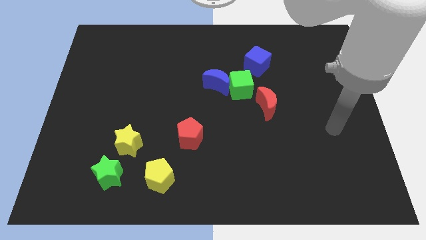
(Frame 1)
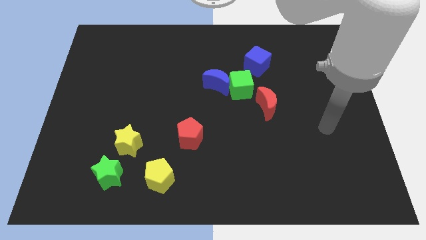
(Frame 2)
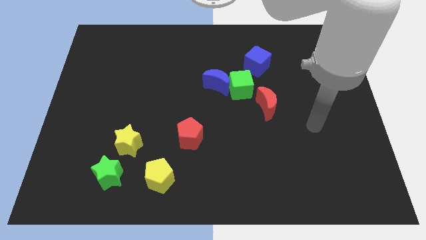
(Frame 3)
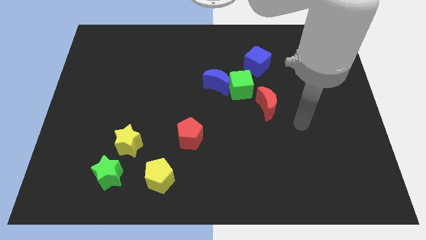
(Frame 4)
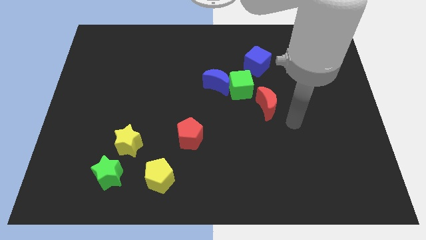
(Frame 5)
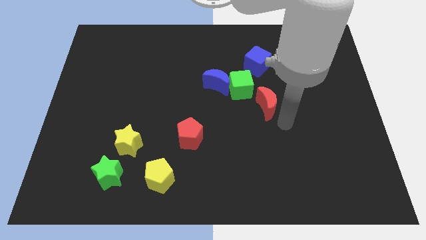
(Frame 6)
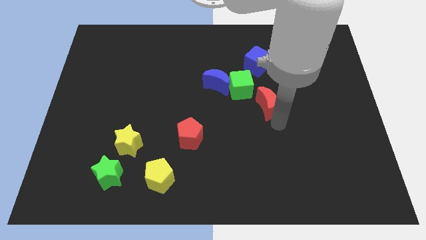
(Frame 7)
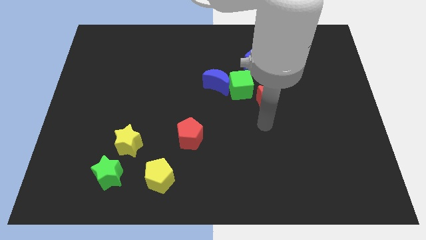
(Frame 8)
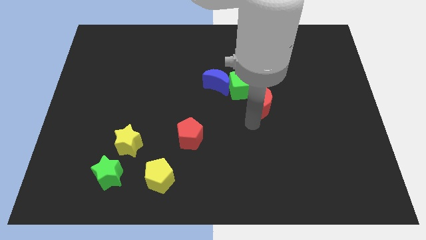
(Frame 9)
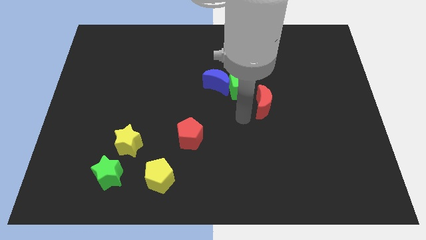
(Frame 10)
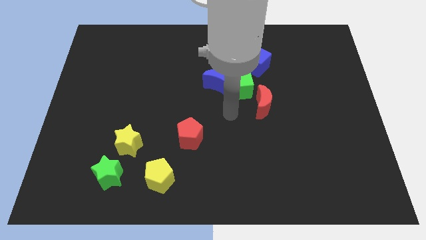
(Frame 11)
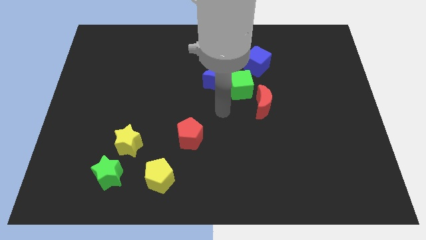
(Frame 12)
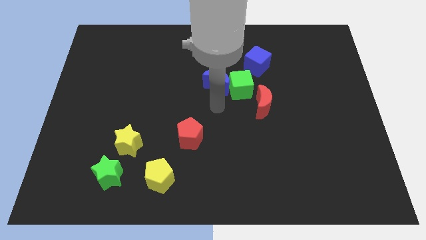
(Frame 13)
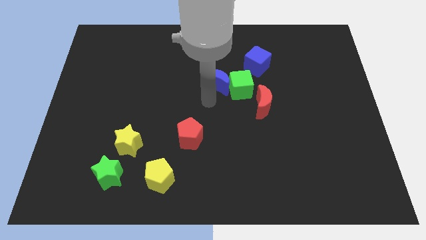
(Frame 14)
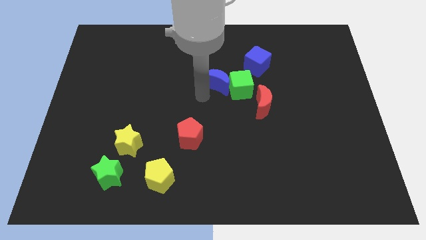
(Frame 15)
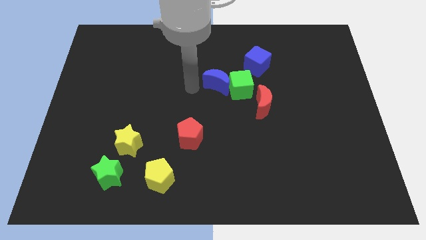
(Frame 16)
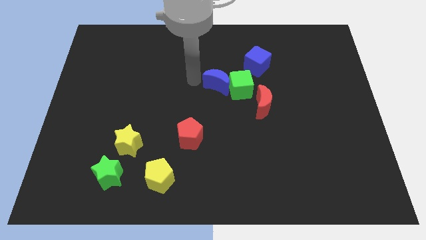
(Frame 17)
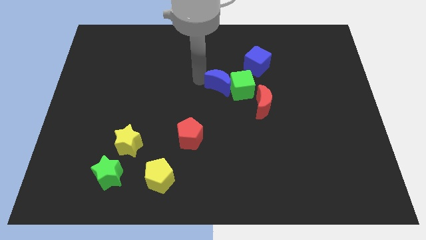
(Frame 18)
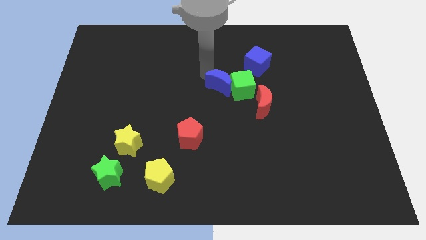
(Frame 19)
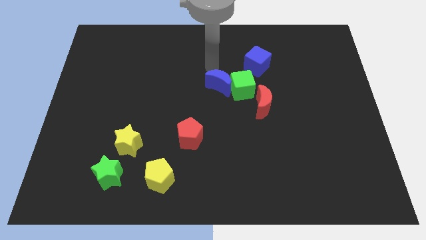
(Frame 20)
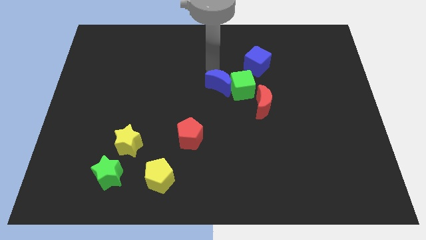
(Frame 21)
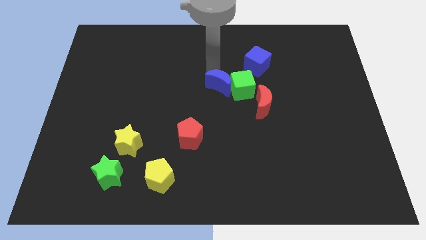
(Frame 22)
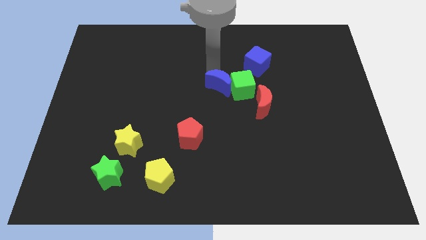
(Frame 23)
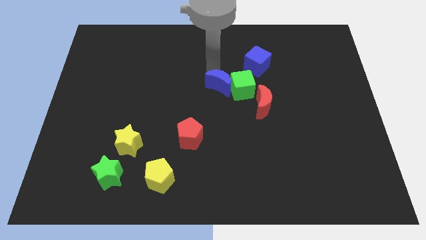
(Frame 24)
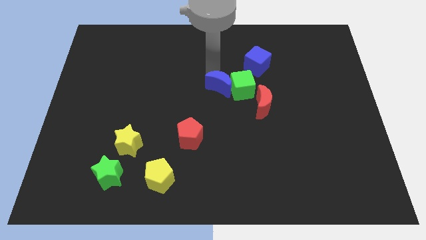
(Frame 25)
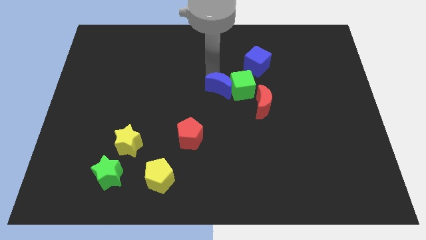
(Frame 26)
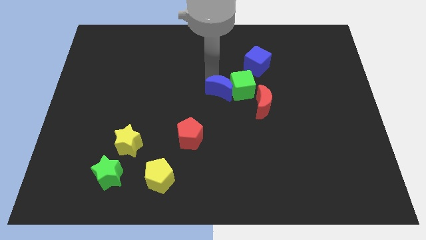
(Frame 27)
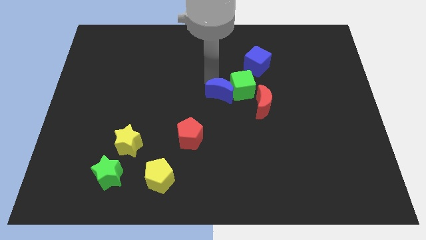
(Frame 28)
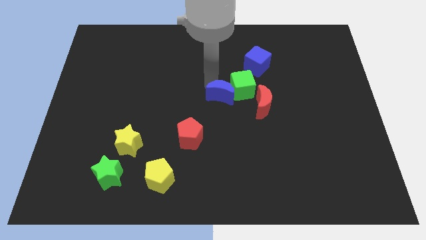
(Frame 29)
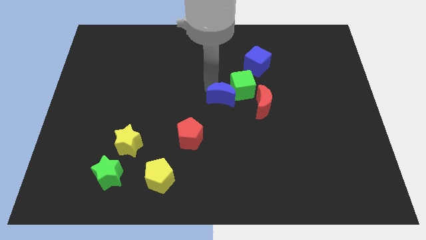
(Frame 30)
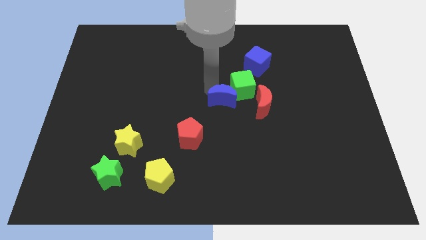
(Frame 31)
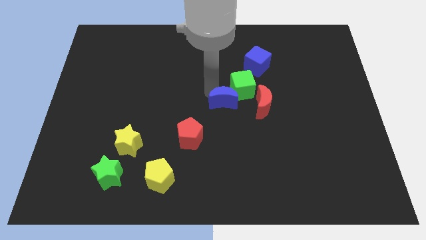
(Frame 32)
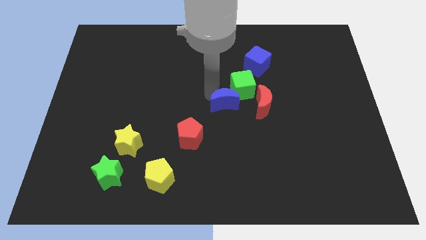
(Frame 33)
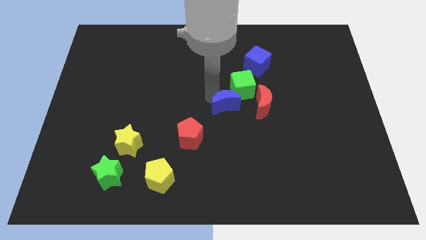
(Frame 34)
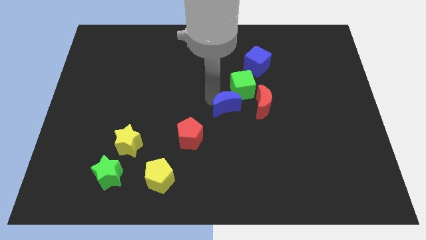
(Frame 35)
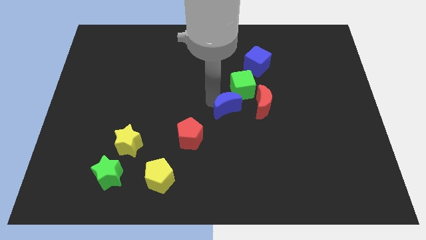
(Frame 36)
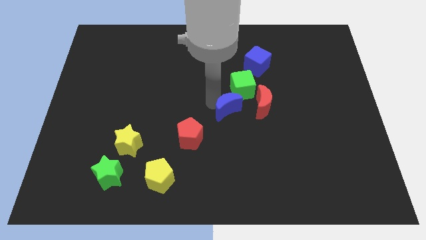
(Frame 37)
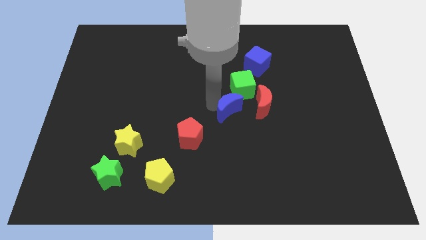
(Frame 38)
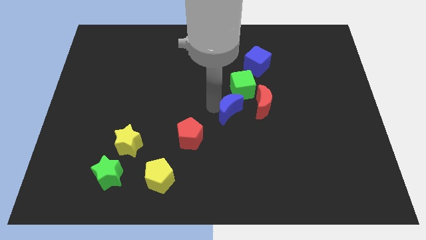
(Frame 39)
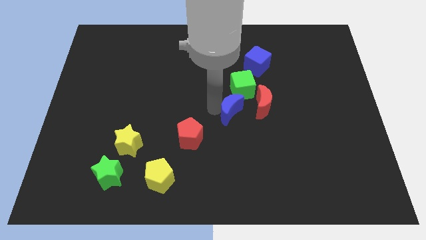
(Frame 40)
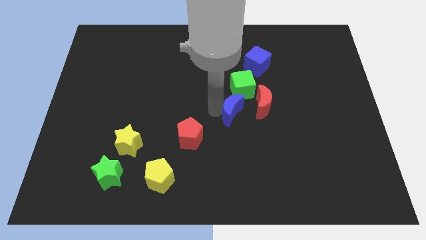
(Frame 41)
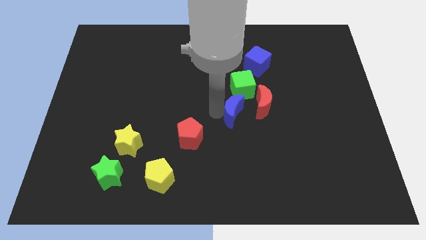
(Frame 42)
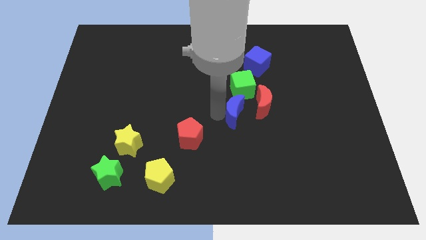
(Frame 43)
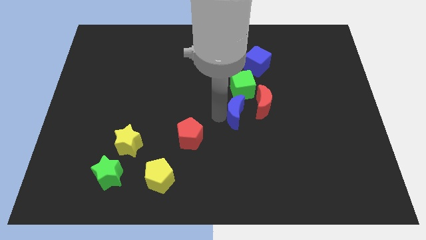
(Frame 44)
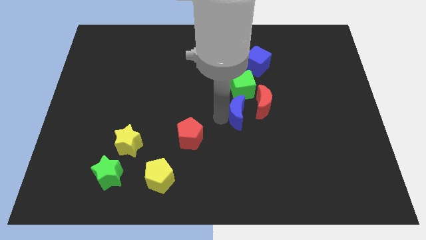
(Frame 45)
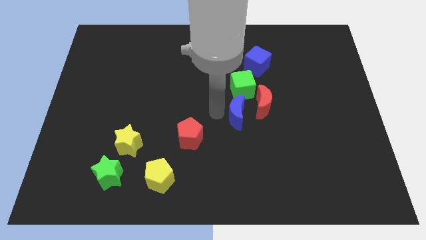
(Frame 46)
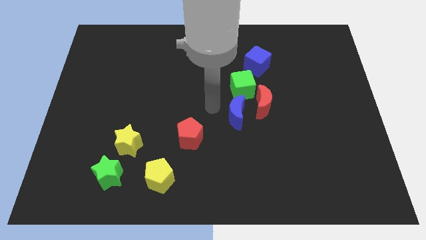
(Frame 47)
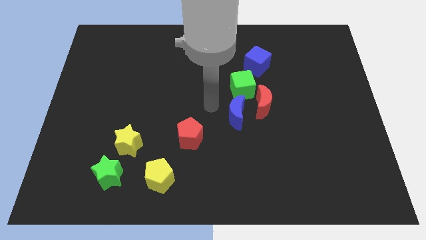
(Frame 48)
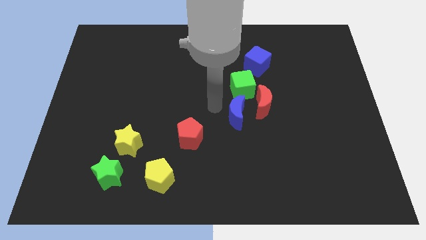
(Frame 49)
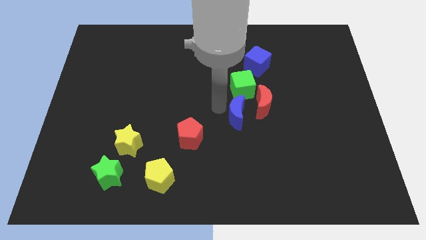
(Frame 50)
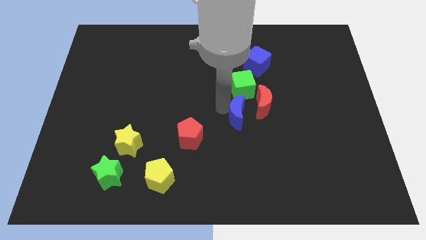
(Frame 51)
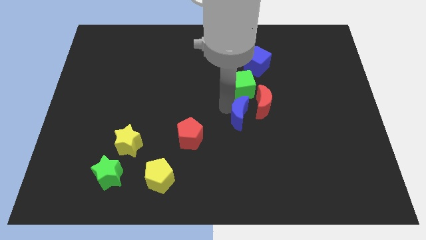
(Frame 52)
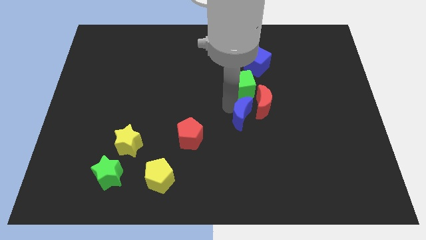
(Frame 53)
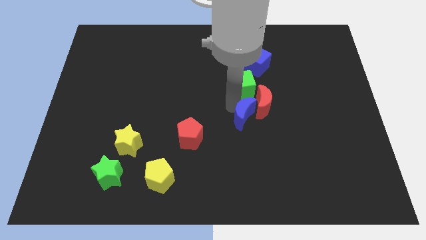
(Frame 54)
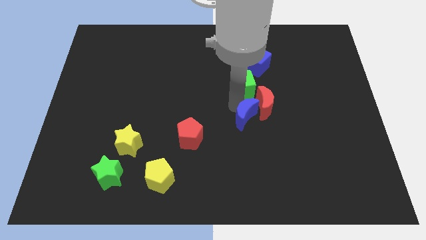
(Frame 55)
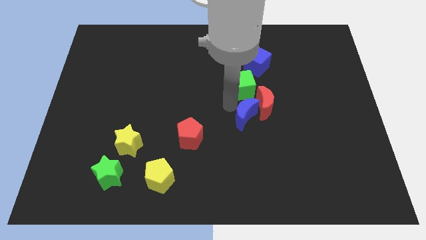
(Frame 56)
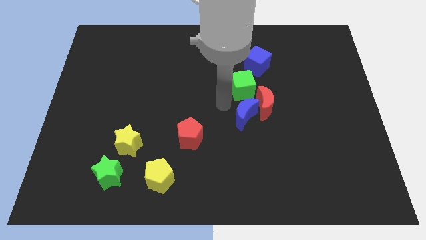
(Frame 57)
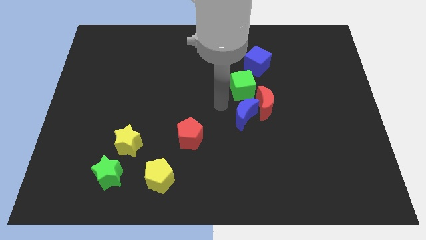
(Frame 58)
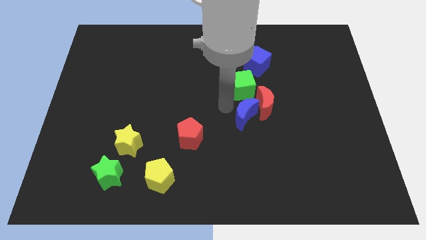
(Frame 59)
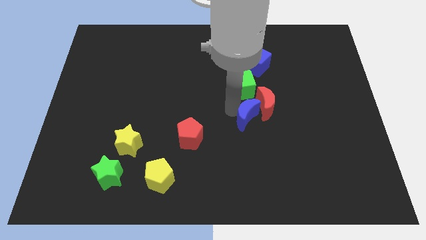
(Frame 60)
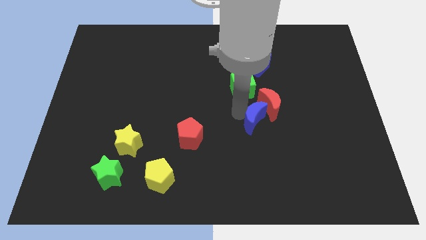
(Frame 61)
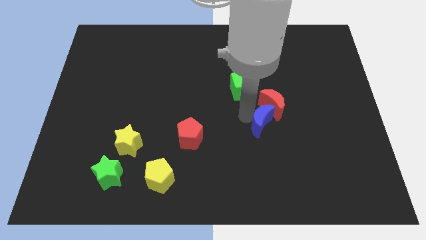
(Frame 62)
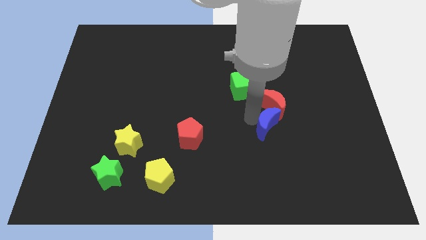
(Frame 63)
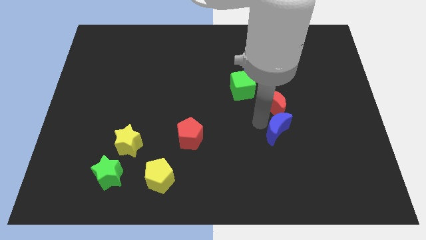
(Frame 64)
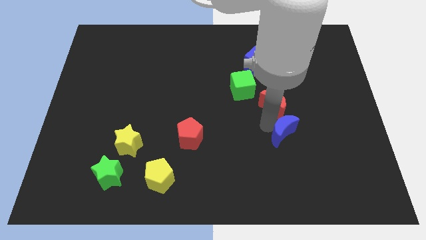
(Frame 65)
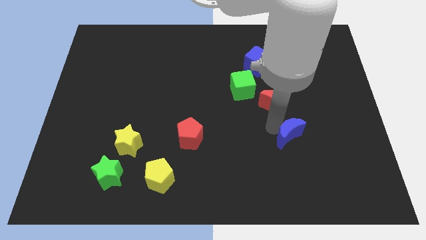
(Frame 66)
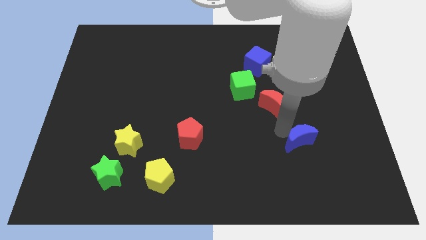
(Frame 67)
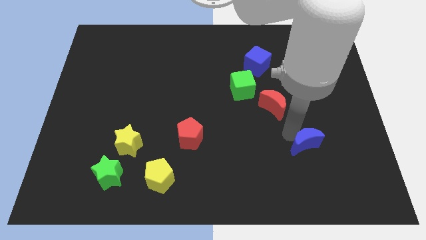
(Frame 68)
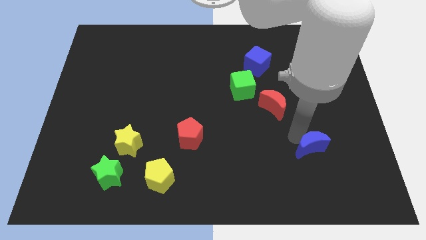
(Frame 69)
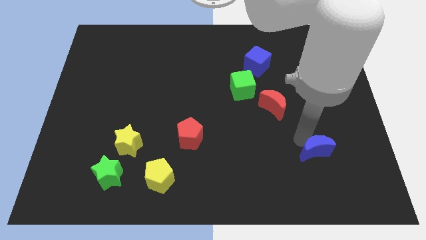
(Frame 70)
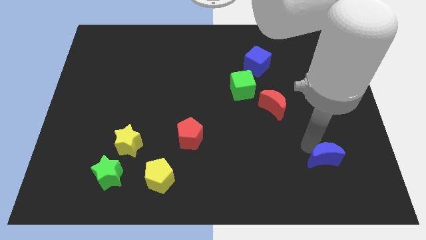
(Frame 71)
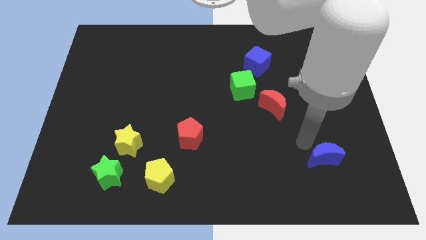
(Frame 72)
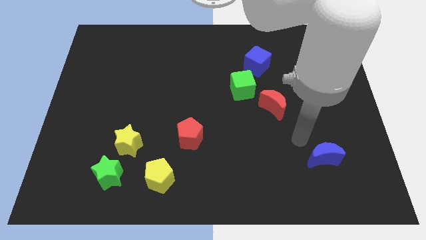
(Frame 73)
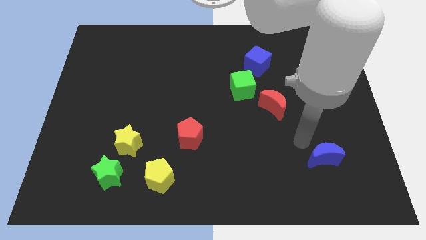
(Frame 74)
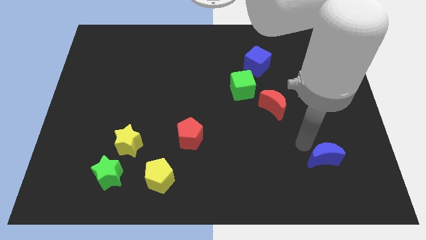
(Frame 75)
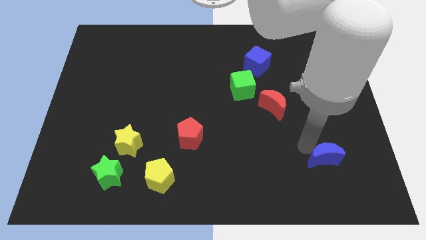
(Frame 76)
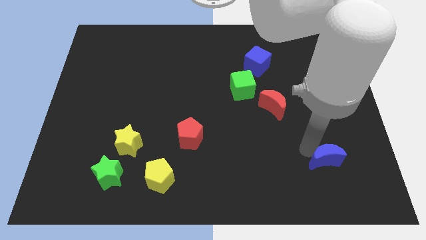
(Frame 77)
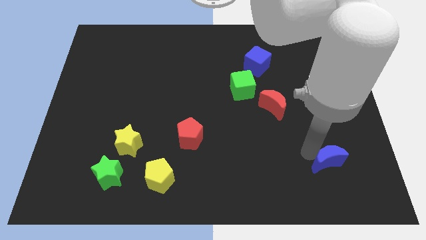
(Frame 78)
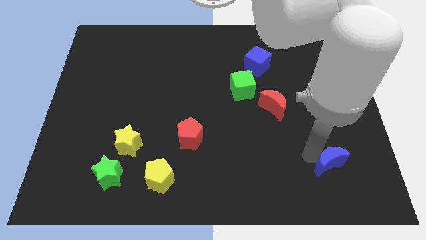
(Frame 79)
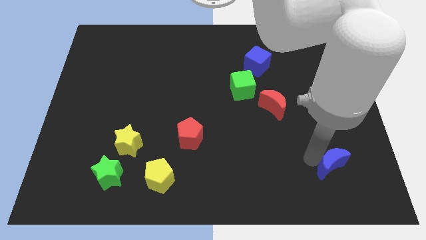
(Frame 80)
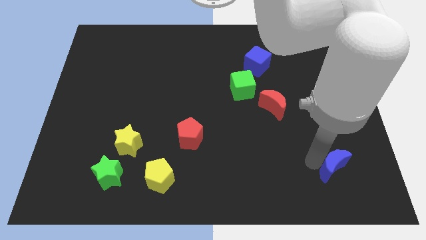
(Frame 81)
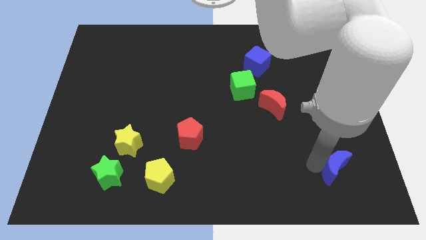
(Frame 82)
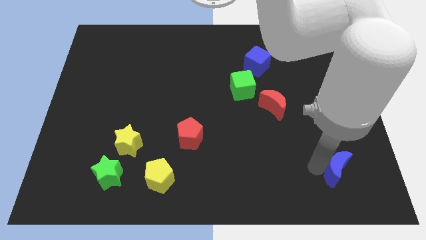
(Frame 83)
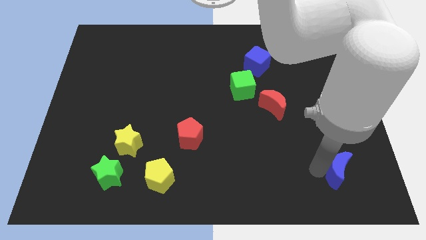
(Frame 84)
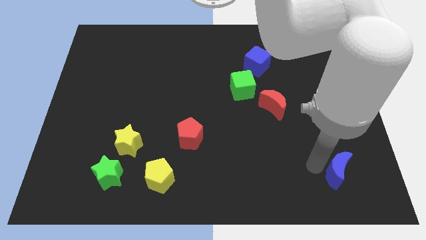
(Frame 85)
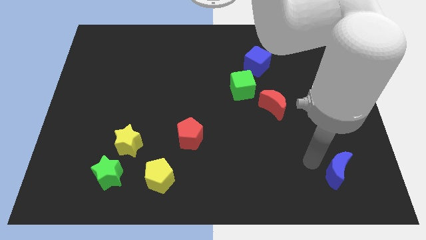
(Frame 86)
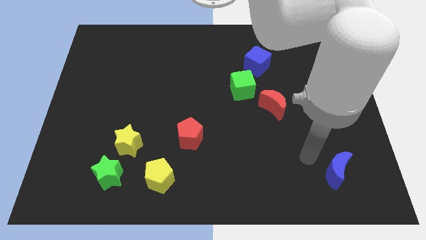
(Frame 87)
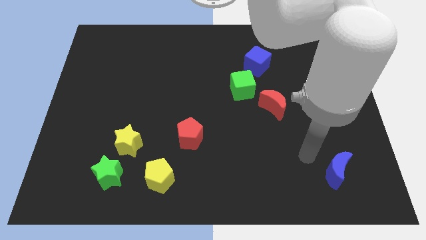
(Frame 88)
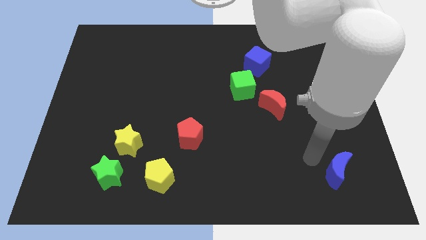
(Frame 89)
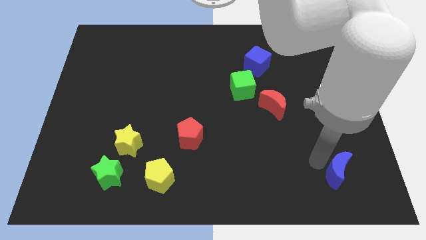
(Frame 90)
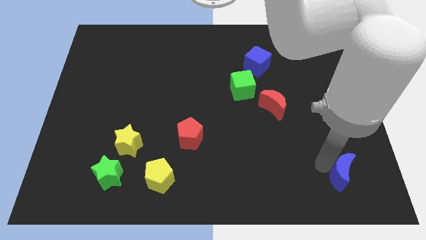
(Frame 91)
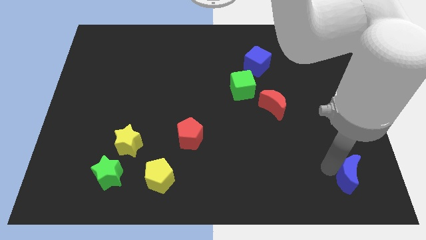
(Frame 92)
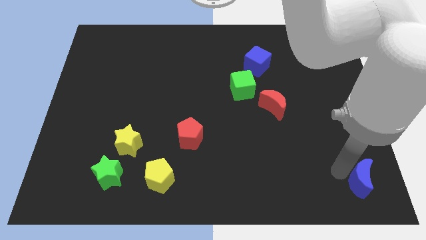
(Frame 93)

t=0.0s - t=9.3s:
put the blue moon to the bottom right
